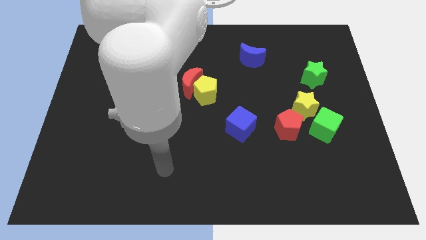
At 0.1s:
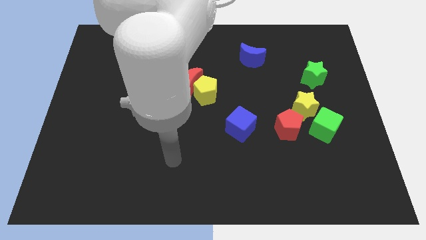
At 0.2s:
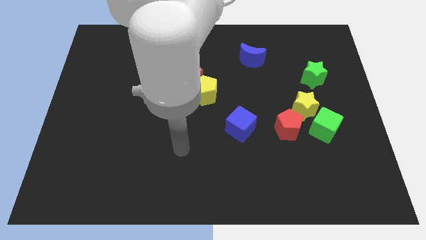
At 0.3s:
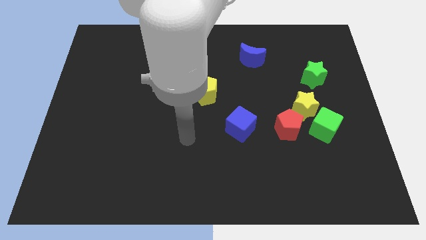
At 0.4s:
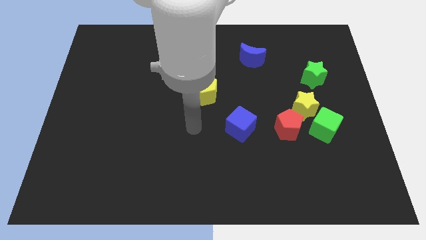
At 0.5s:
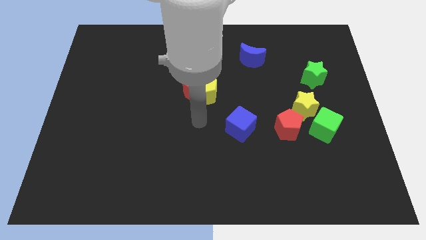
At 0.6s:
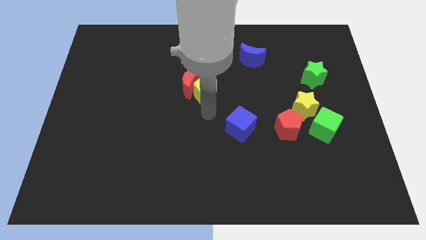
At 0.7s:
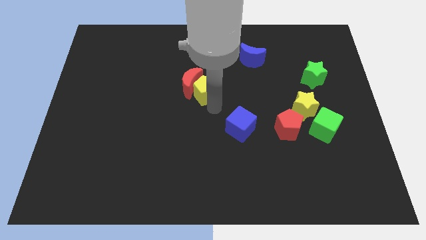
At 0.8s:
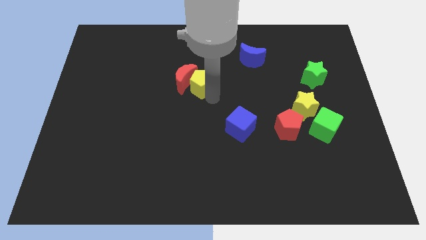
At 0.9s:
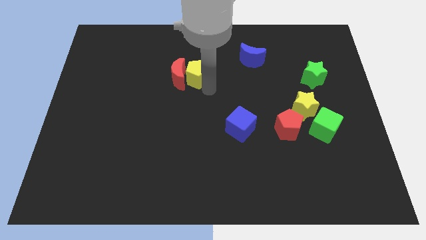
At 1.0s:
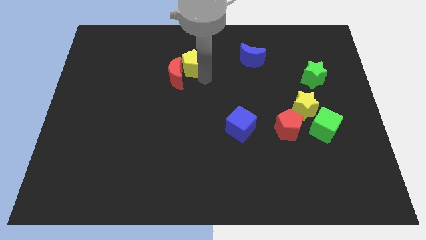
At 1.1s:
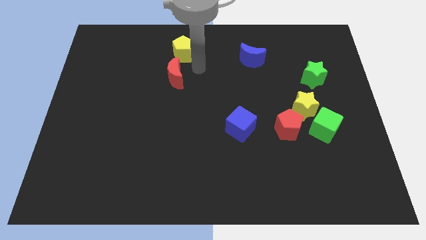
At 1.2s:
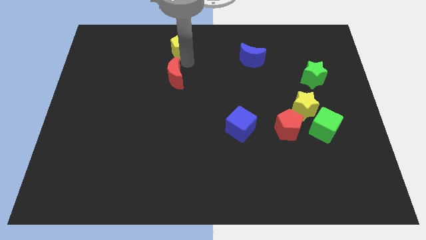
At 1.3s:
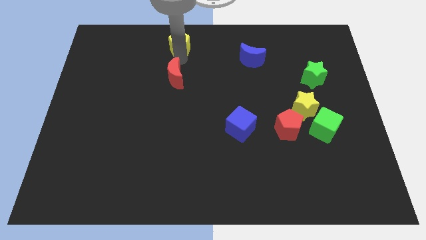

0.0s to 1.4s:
separate the red moon from the yellow pentagon

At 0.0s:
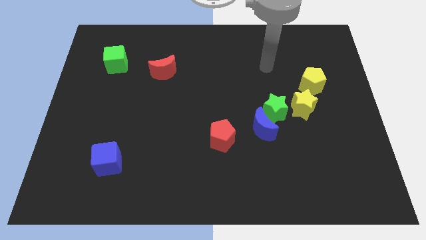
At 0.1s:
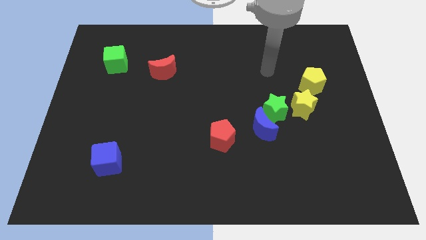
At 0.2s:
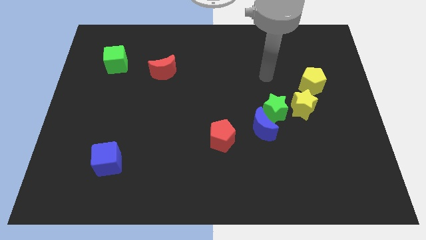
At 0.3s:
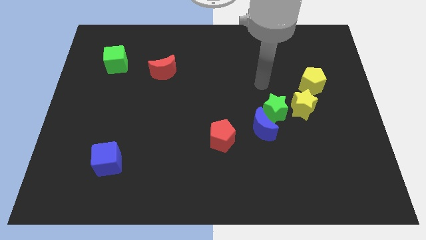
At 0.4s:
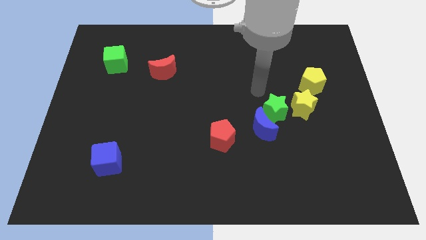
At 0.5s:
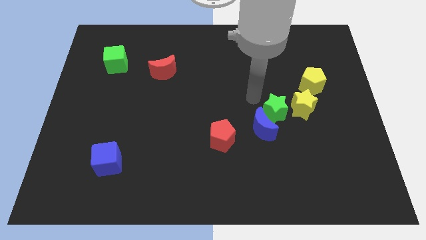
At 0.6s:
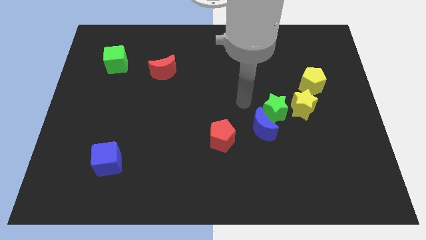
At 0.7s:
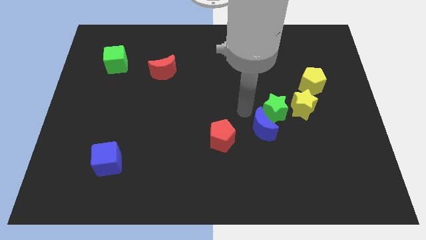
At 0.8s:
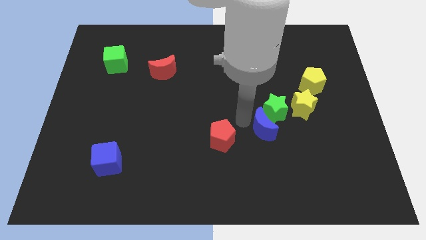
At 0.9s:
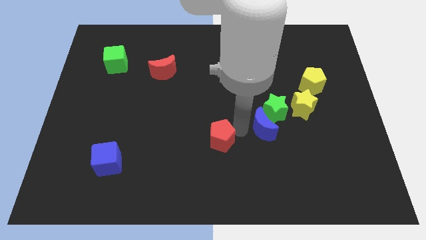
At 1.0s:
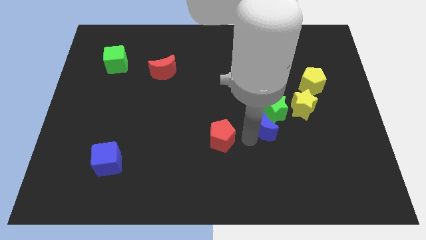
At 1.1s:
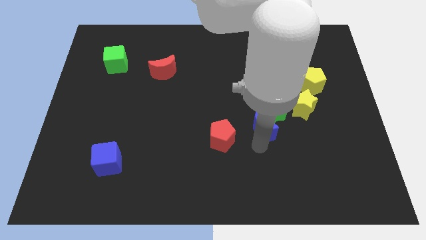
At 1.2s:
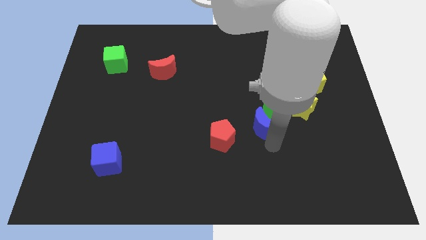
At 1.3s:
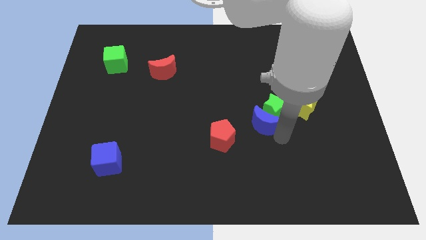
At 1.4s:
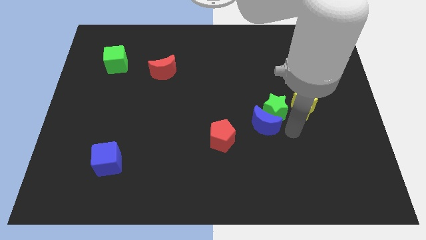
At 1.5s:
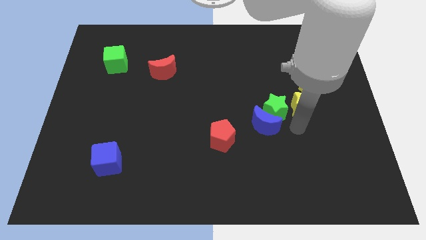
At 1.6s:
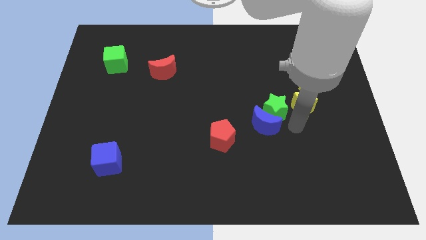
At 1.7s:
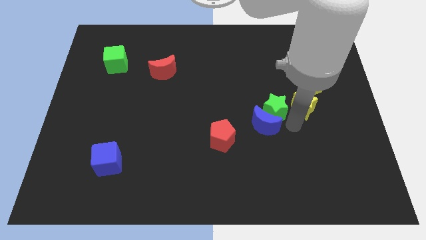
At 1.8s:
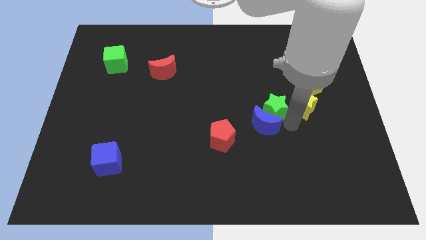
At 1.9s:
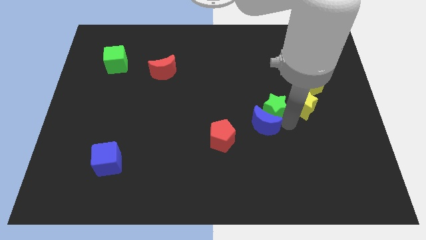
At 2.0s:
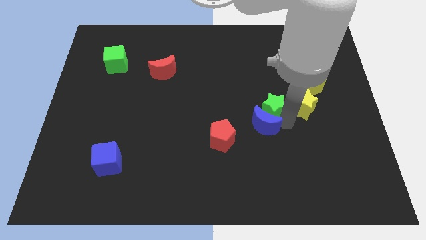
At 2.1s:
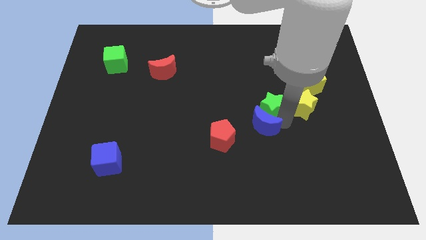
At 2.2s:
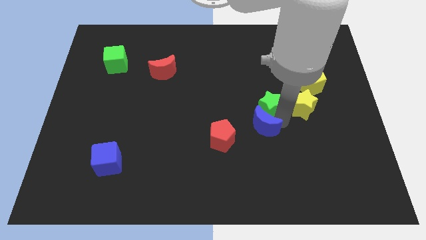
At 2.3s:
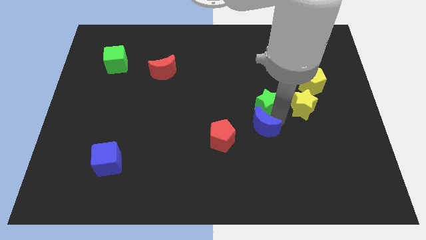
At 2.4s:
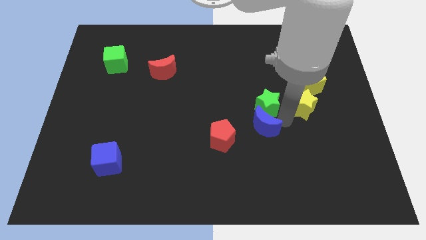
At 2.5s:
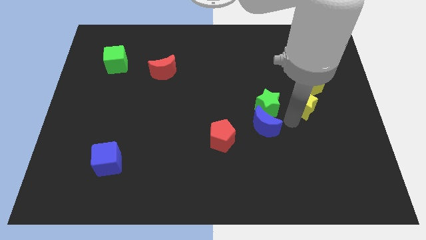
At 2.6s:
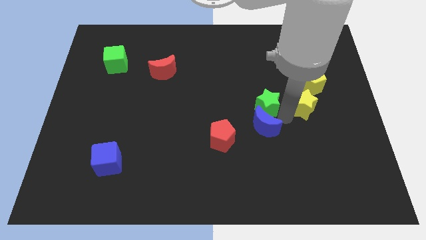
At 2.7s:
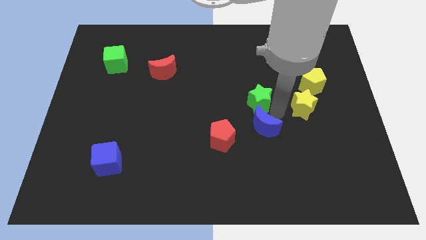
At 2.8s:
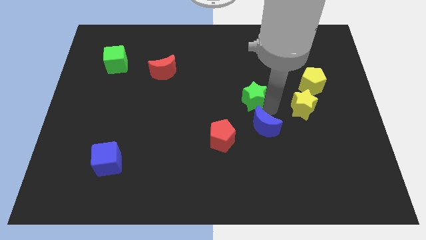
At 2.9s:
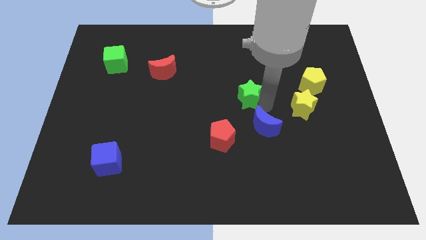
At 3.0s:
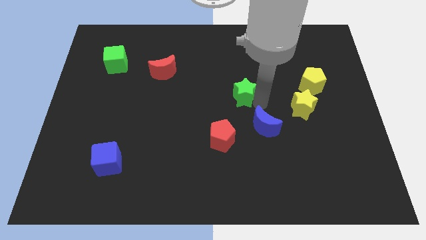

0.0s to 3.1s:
pull the green star apart from the blue moon and yellow star

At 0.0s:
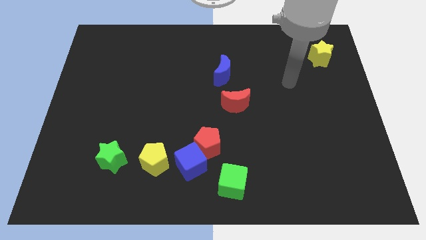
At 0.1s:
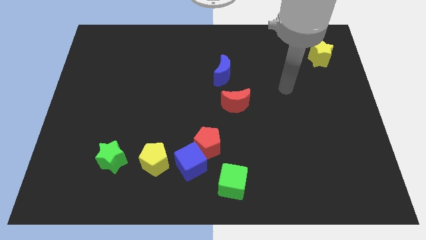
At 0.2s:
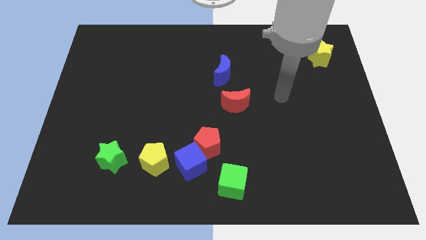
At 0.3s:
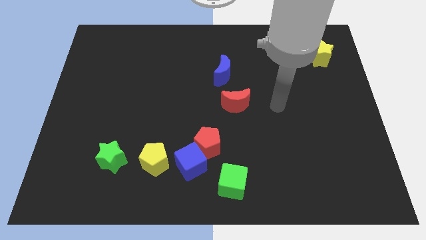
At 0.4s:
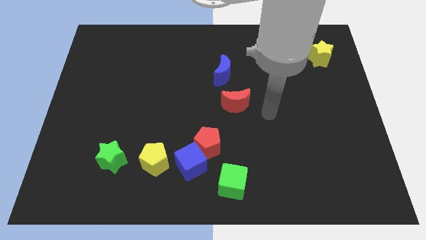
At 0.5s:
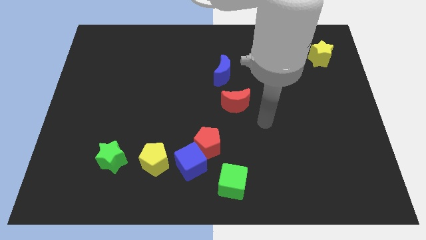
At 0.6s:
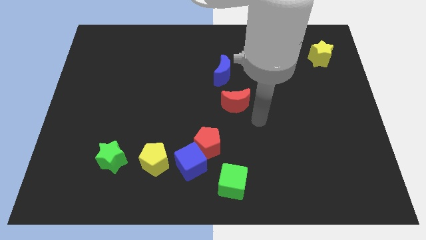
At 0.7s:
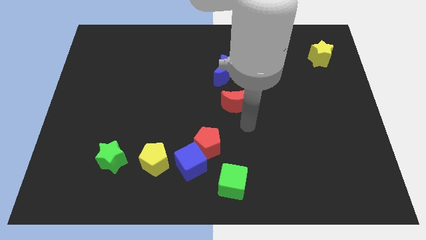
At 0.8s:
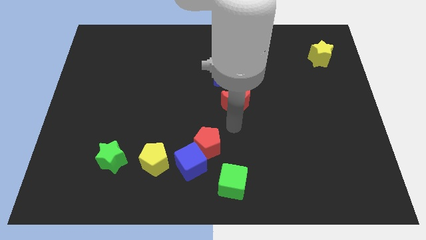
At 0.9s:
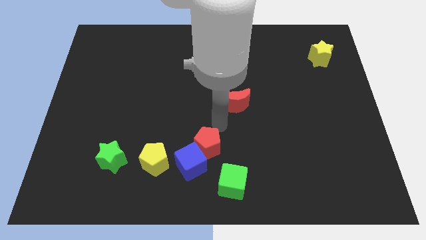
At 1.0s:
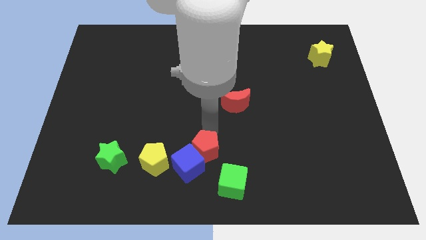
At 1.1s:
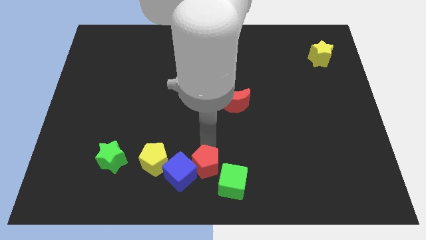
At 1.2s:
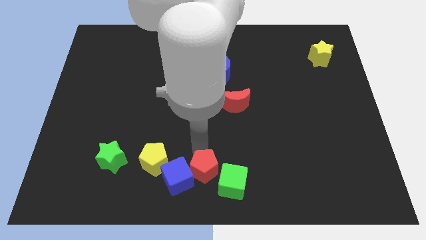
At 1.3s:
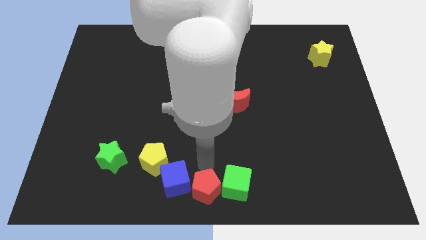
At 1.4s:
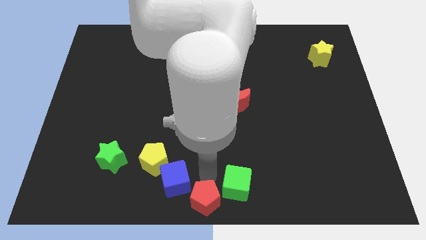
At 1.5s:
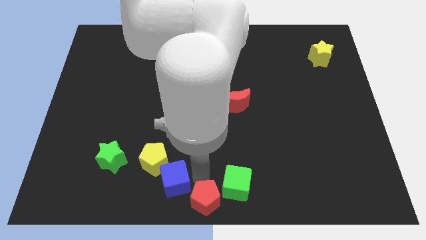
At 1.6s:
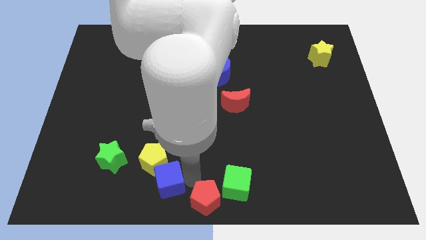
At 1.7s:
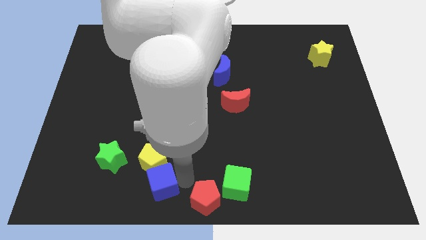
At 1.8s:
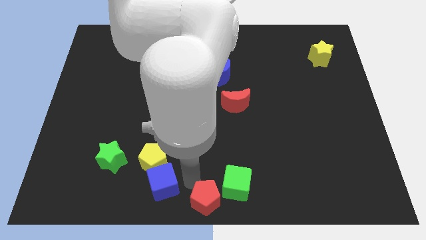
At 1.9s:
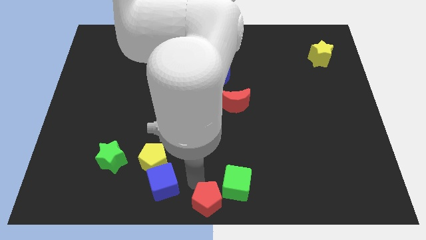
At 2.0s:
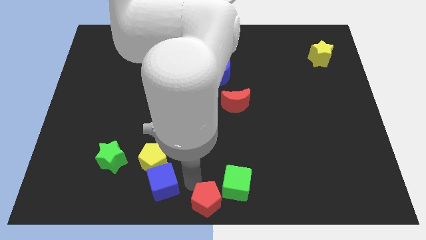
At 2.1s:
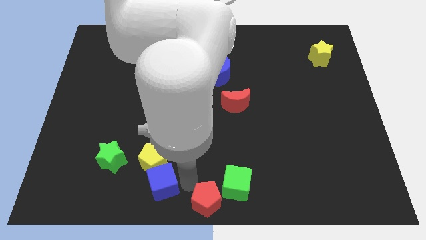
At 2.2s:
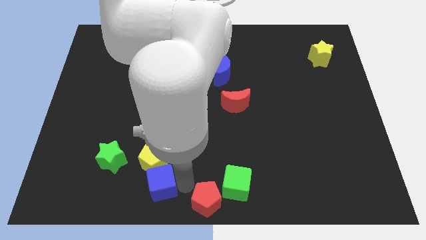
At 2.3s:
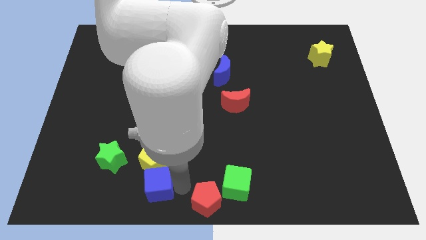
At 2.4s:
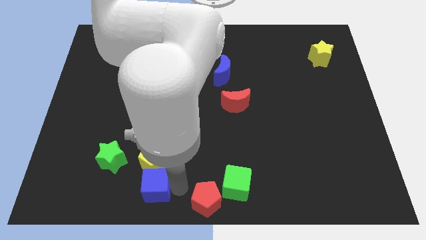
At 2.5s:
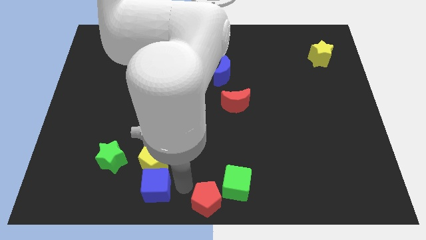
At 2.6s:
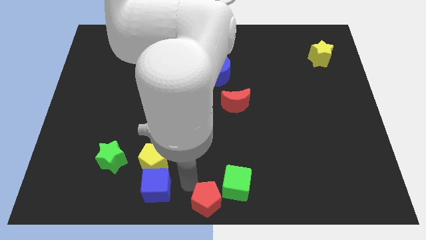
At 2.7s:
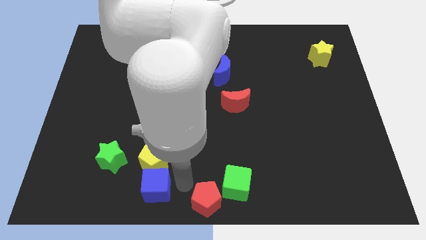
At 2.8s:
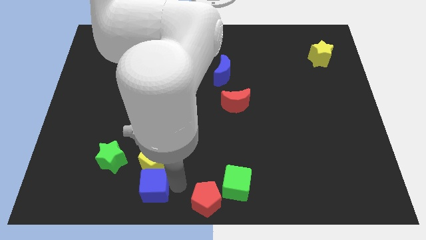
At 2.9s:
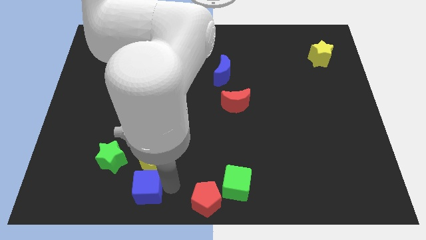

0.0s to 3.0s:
separate the blue cube from the red pentagon, yellow pentagon, and green cube

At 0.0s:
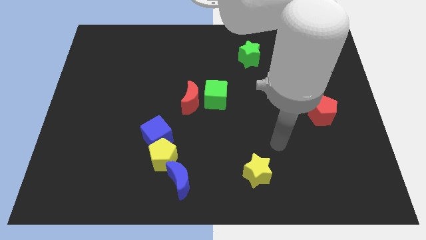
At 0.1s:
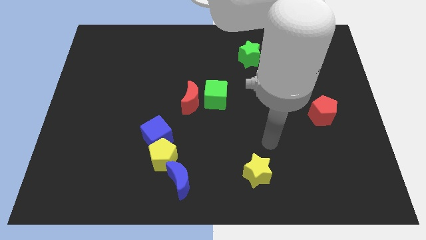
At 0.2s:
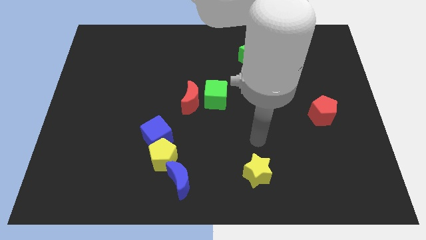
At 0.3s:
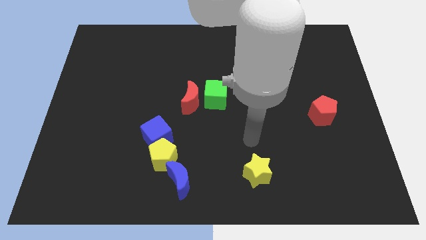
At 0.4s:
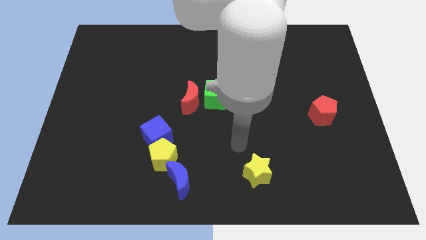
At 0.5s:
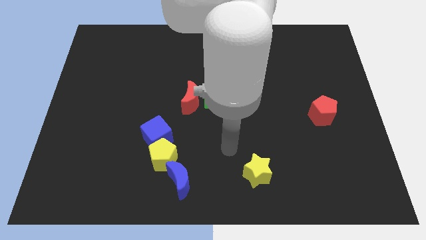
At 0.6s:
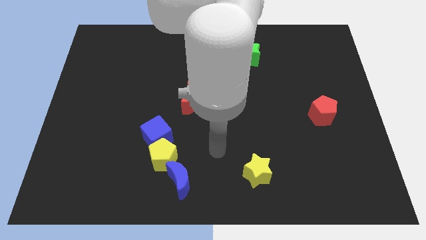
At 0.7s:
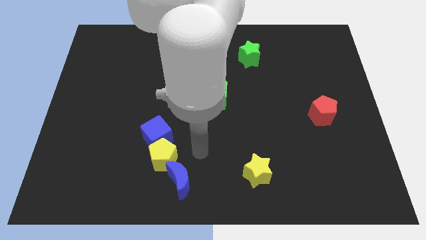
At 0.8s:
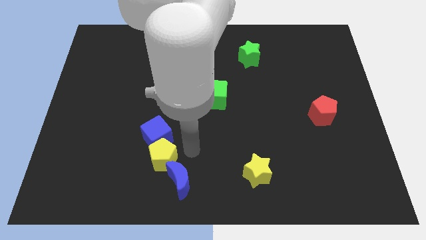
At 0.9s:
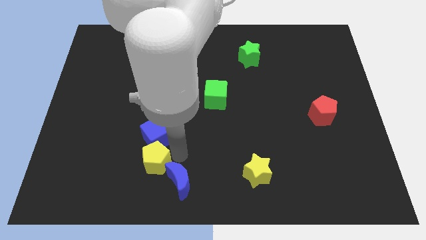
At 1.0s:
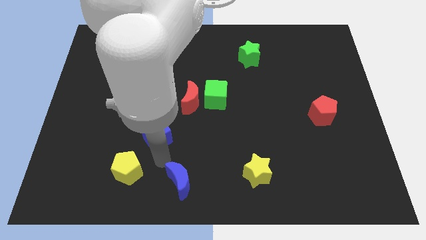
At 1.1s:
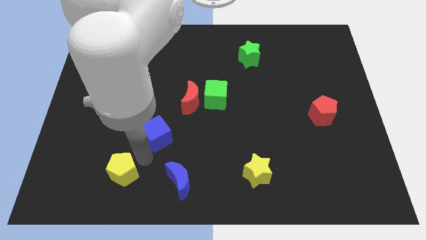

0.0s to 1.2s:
separate the blue cube from the yellow pentagon

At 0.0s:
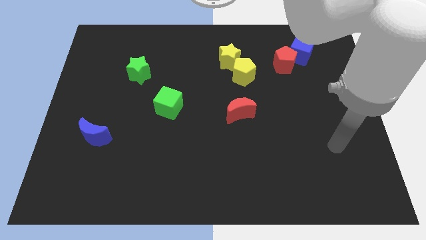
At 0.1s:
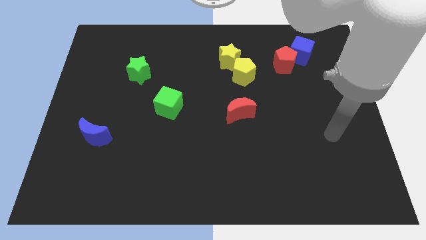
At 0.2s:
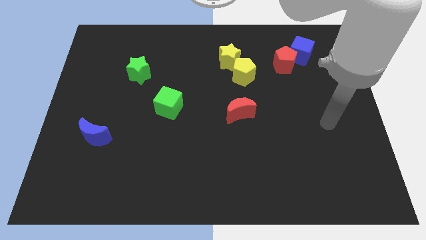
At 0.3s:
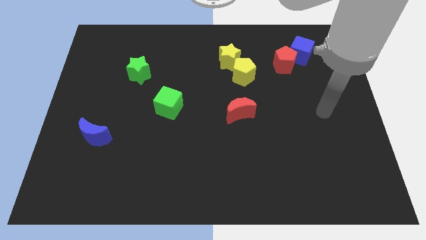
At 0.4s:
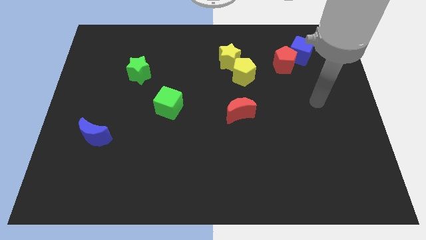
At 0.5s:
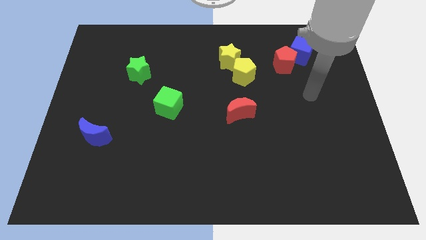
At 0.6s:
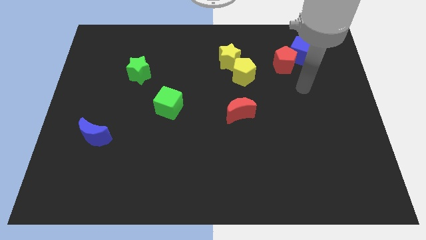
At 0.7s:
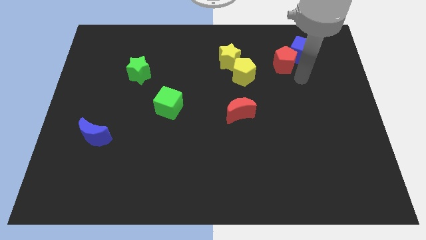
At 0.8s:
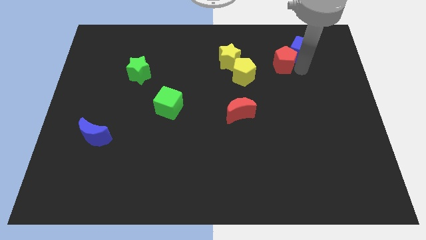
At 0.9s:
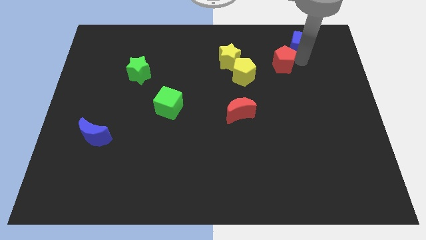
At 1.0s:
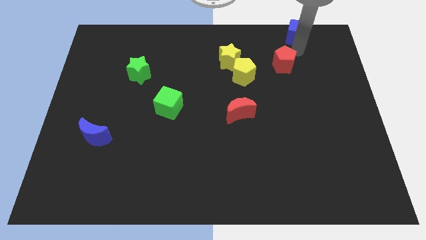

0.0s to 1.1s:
separate the red pentagon from the blue cube
